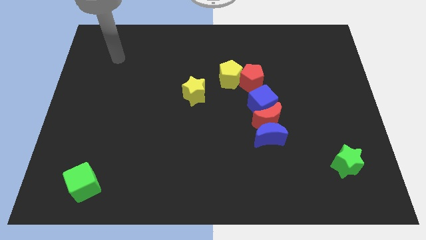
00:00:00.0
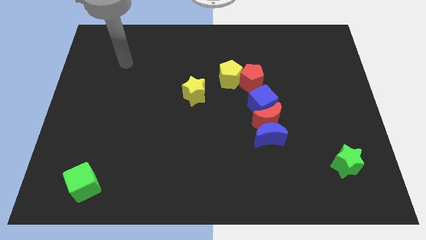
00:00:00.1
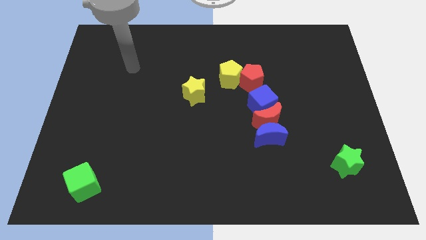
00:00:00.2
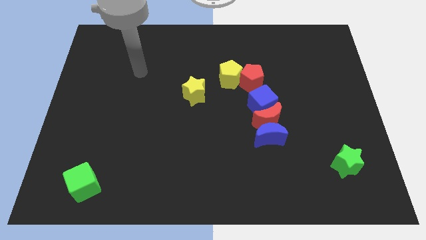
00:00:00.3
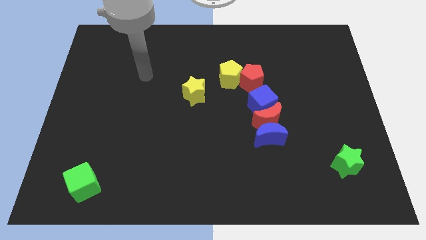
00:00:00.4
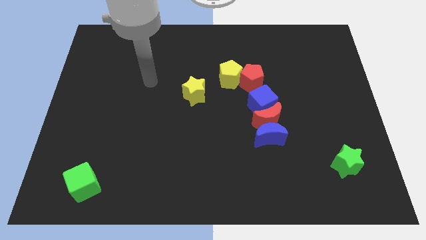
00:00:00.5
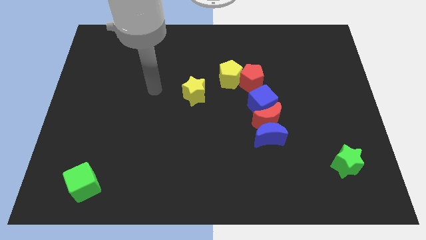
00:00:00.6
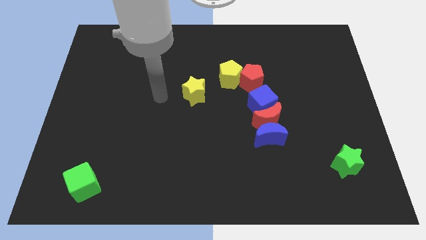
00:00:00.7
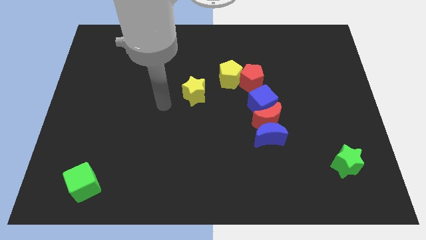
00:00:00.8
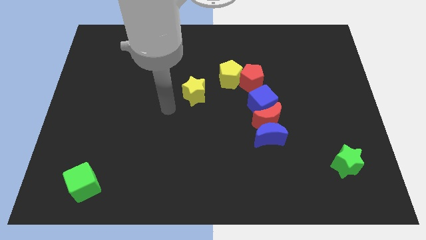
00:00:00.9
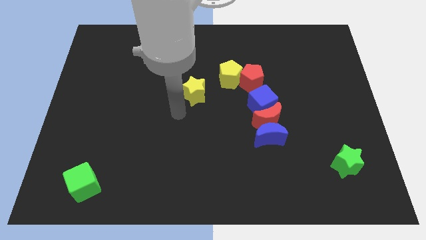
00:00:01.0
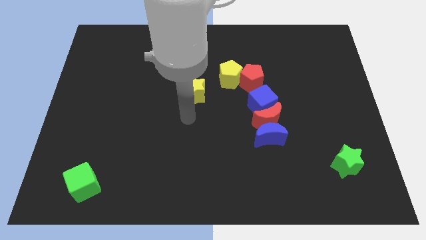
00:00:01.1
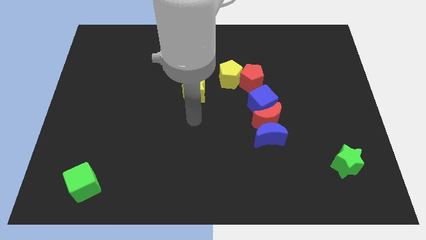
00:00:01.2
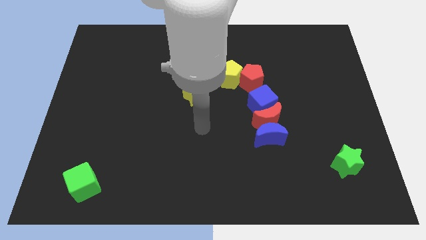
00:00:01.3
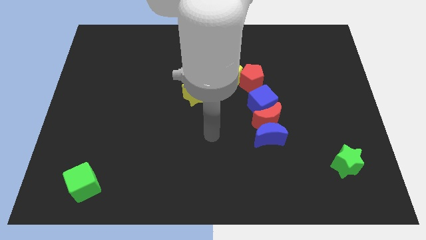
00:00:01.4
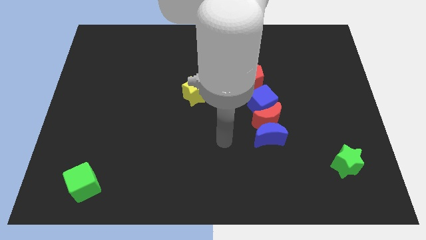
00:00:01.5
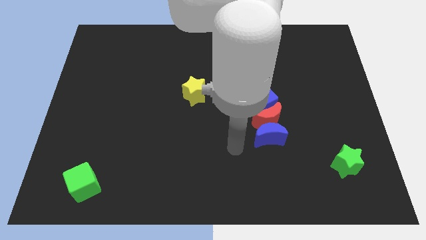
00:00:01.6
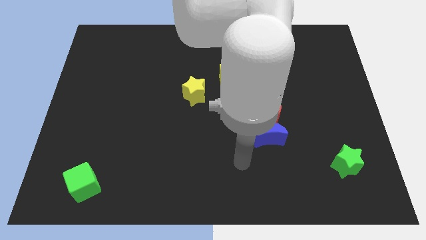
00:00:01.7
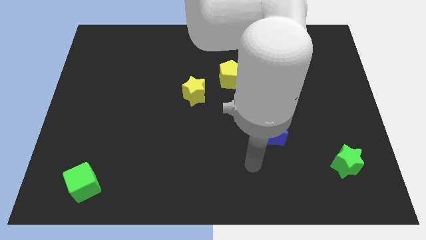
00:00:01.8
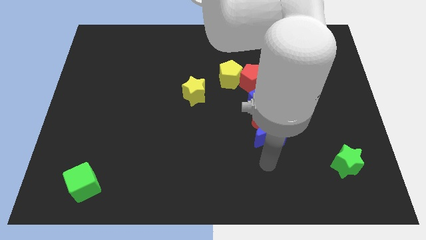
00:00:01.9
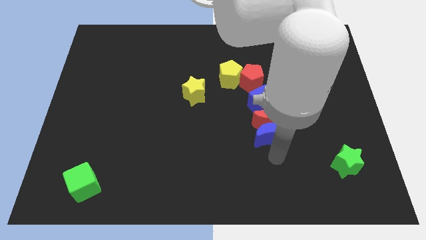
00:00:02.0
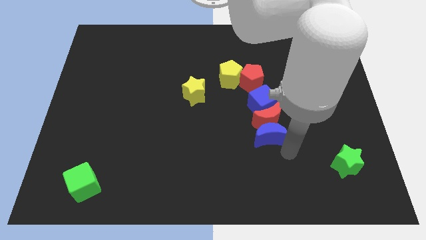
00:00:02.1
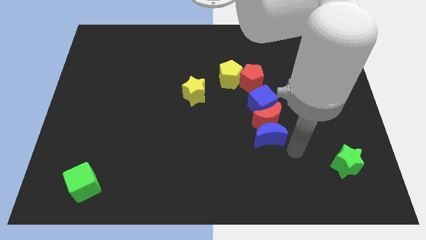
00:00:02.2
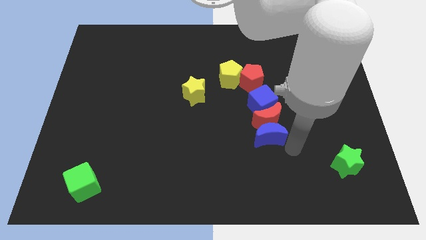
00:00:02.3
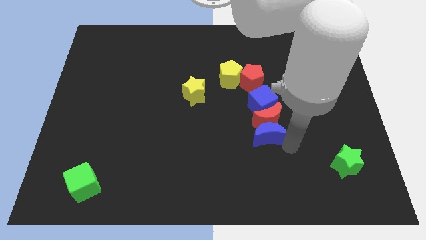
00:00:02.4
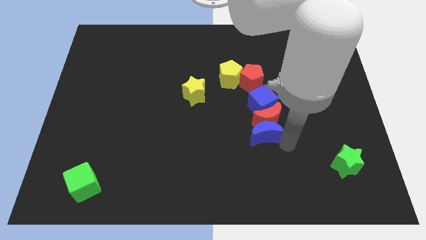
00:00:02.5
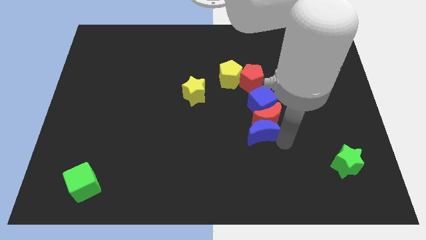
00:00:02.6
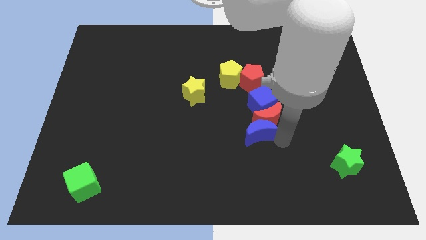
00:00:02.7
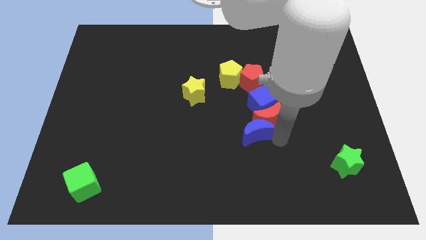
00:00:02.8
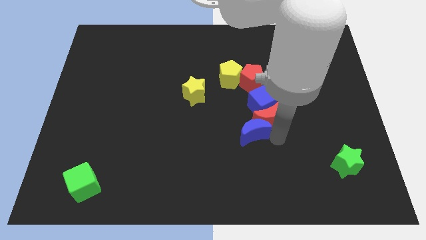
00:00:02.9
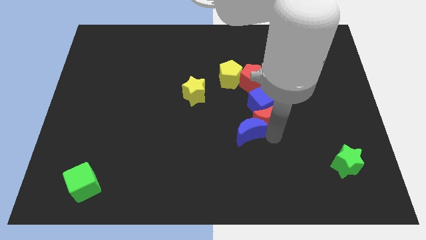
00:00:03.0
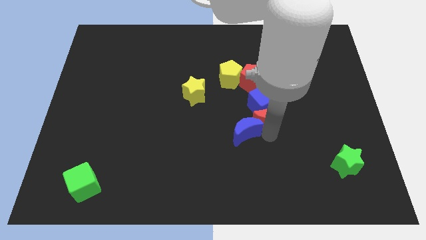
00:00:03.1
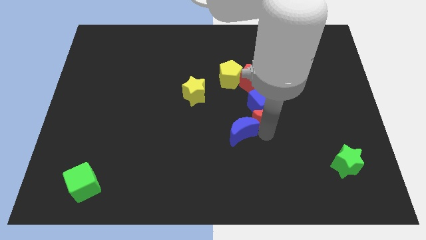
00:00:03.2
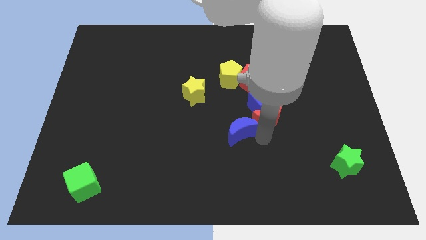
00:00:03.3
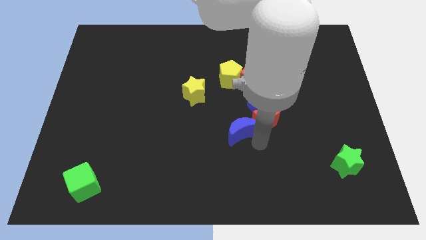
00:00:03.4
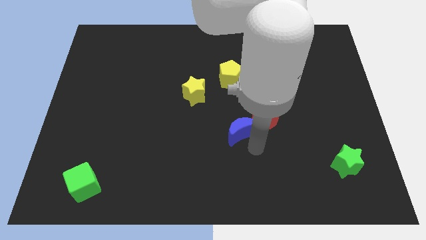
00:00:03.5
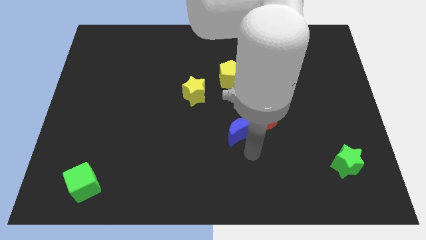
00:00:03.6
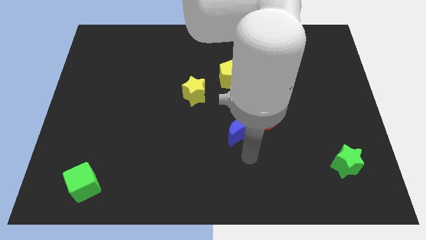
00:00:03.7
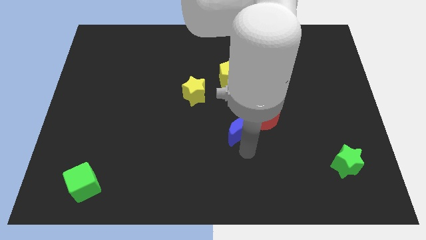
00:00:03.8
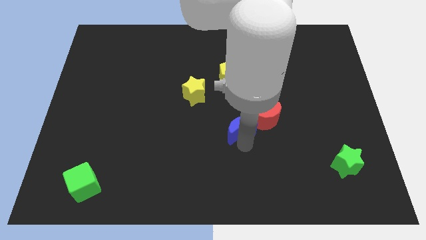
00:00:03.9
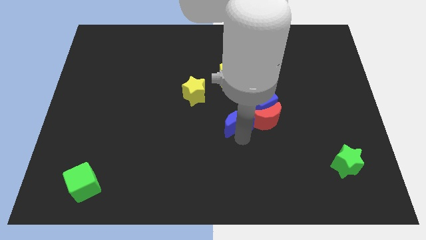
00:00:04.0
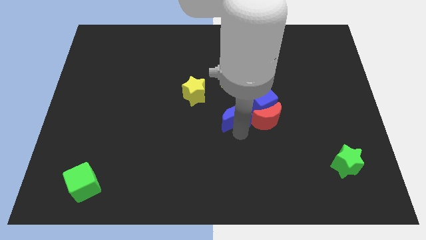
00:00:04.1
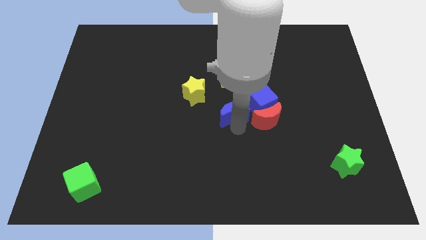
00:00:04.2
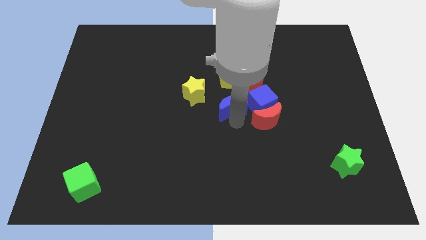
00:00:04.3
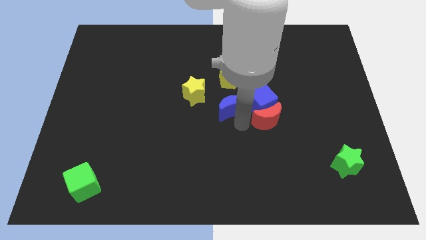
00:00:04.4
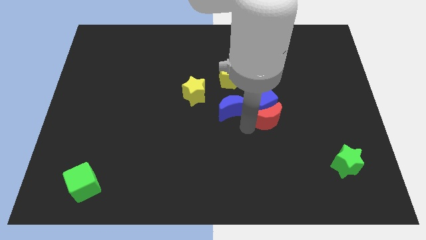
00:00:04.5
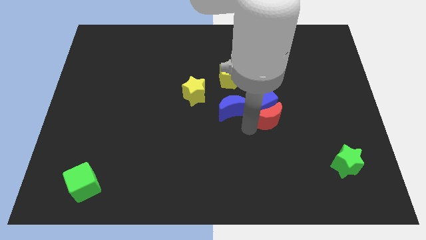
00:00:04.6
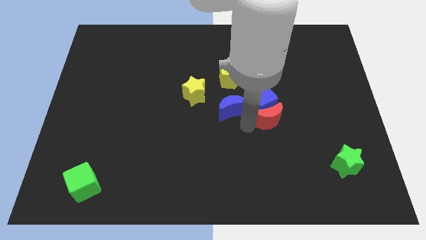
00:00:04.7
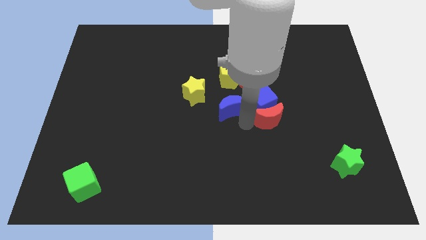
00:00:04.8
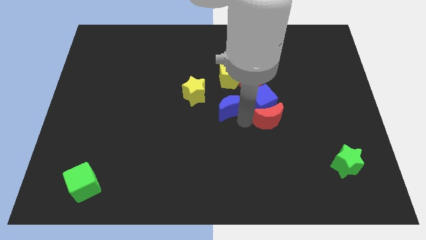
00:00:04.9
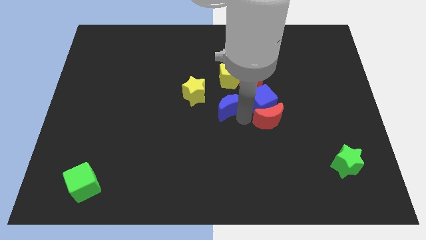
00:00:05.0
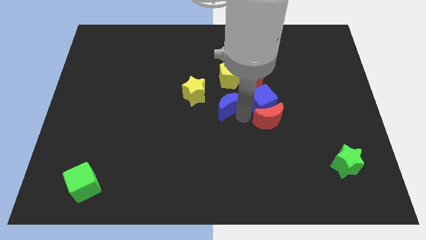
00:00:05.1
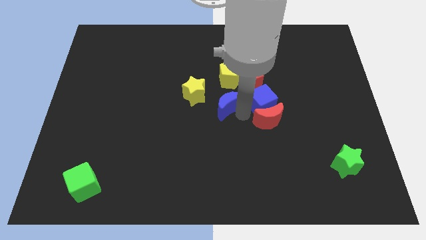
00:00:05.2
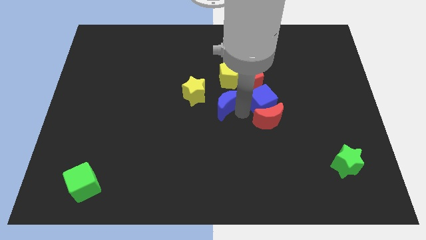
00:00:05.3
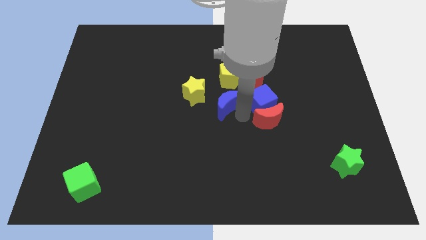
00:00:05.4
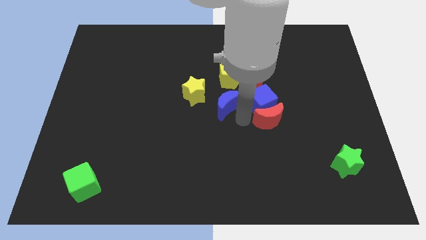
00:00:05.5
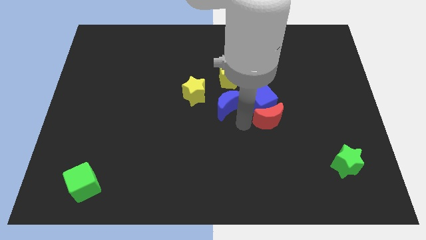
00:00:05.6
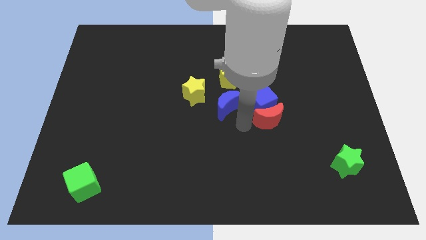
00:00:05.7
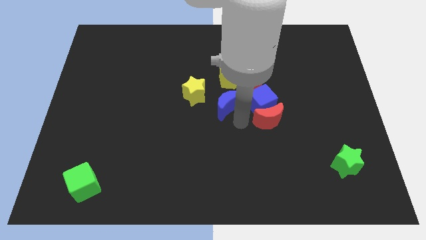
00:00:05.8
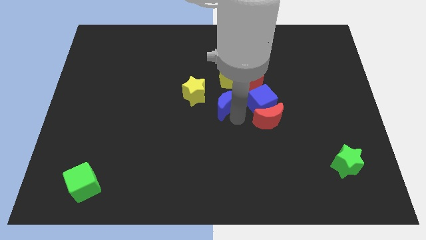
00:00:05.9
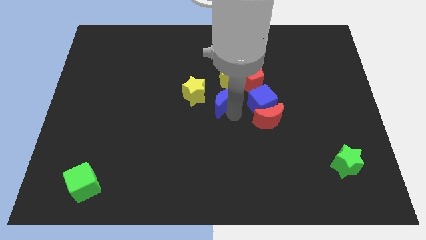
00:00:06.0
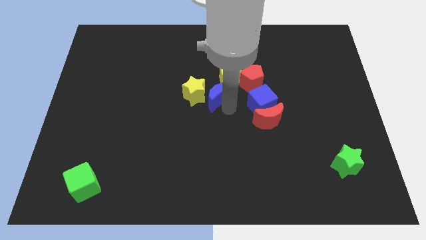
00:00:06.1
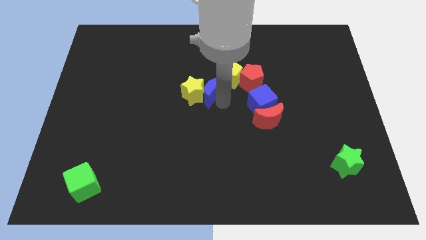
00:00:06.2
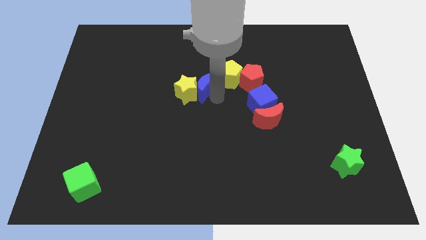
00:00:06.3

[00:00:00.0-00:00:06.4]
slide the blue moon upwards and then left

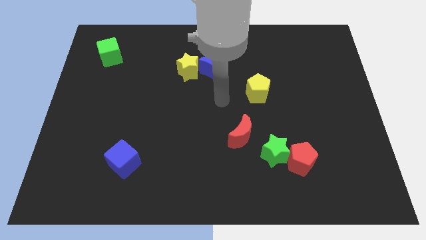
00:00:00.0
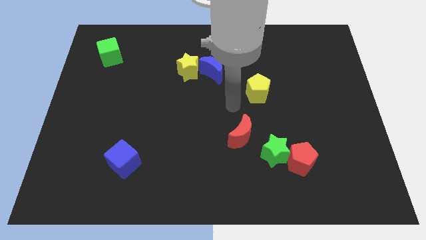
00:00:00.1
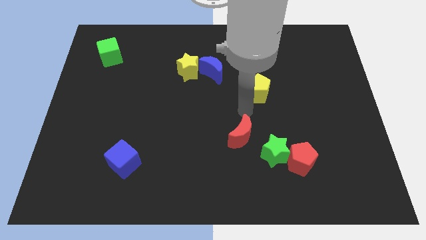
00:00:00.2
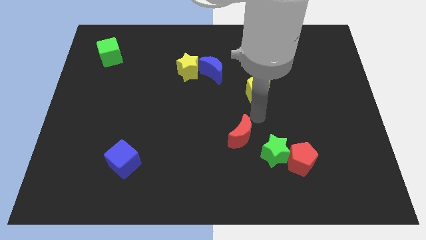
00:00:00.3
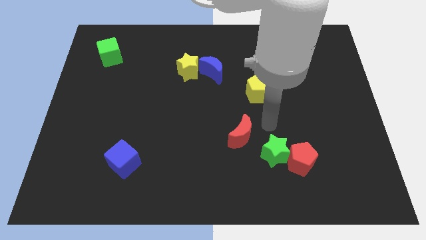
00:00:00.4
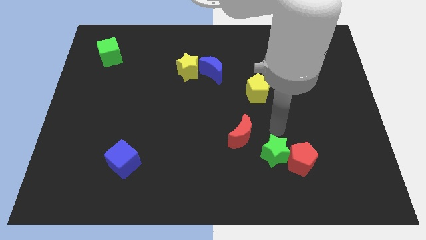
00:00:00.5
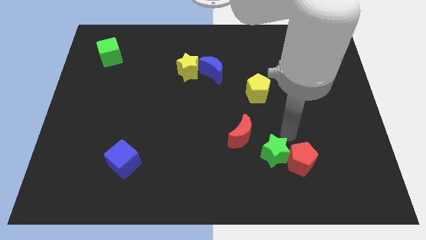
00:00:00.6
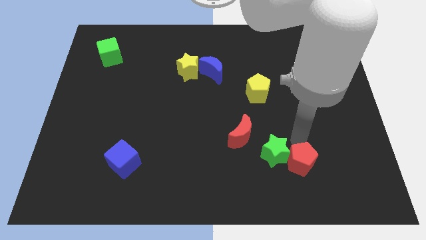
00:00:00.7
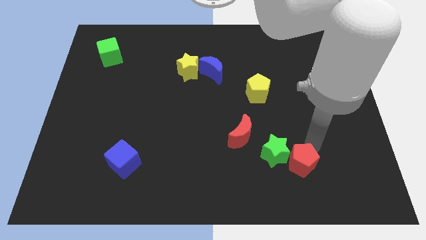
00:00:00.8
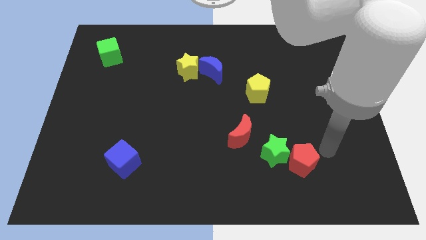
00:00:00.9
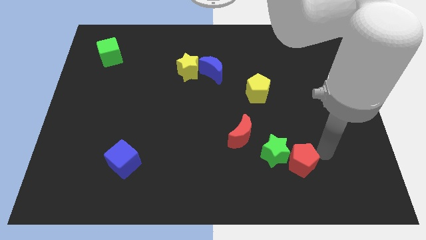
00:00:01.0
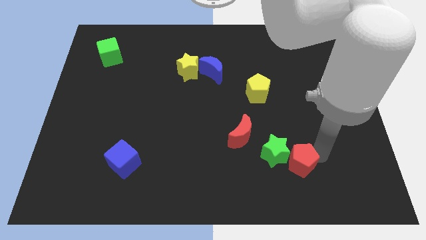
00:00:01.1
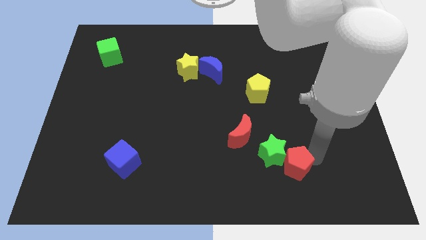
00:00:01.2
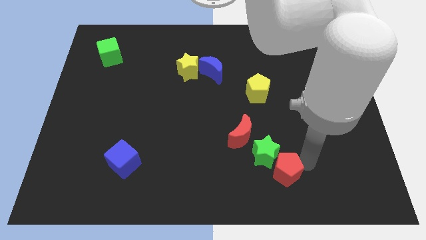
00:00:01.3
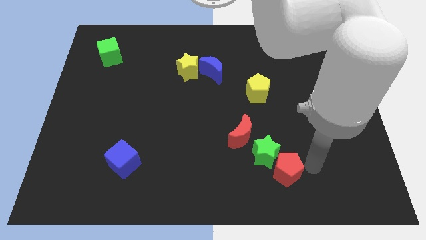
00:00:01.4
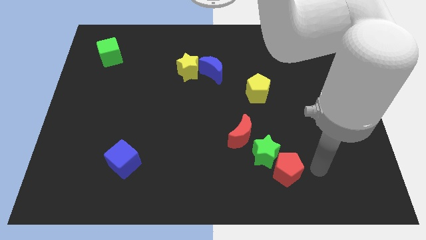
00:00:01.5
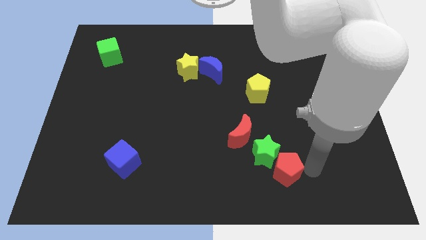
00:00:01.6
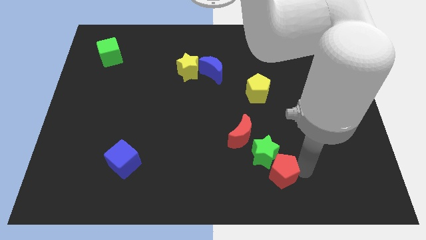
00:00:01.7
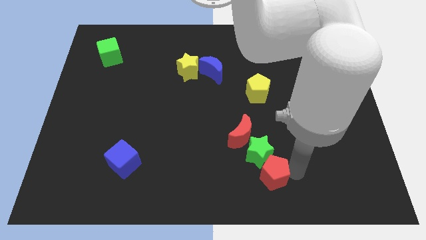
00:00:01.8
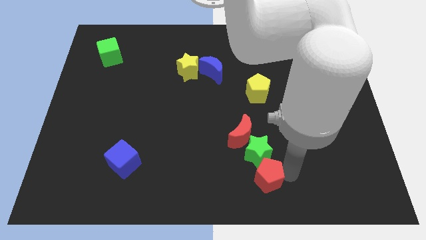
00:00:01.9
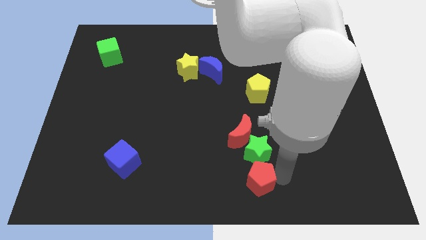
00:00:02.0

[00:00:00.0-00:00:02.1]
move the red pentagon somewhat to the left
